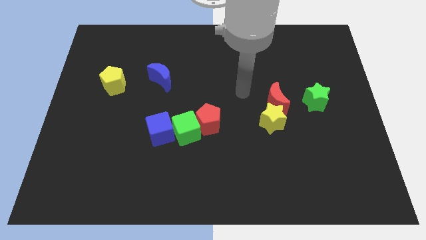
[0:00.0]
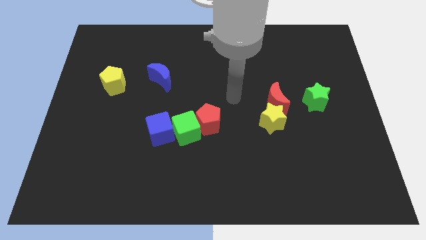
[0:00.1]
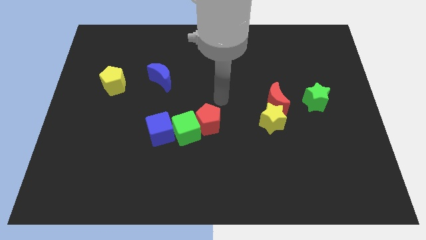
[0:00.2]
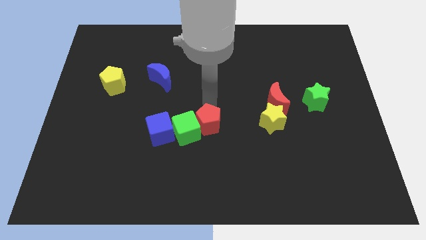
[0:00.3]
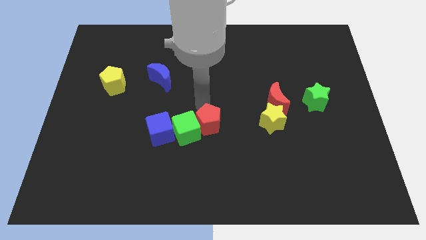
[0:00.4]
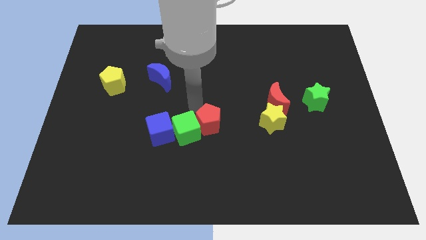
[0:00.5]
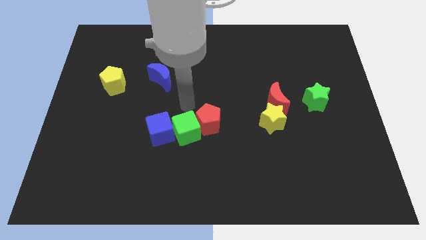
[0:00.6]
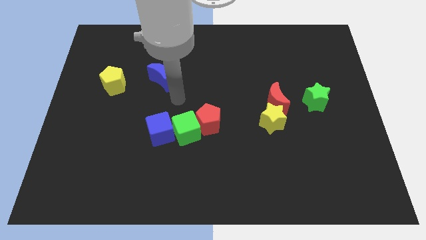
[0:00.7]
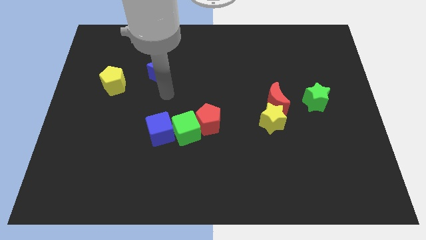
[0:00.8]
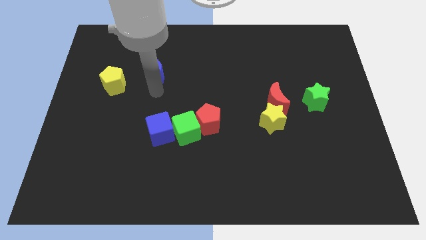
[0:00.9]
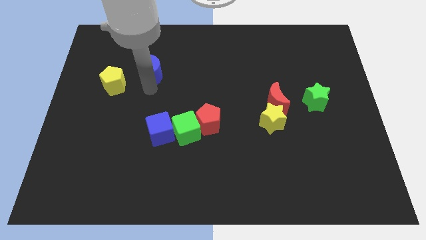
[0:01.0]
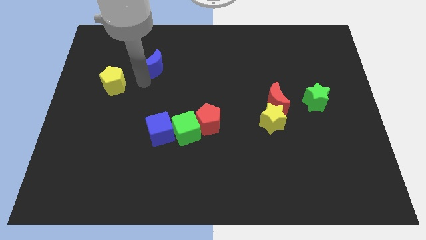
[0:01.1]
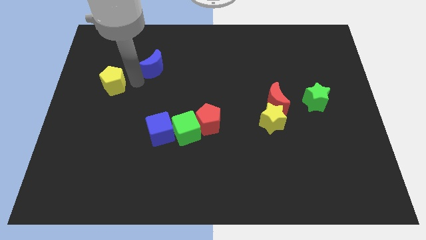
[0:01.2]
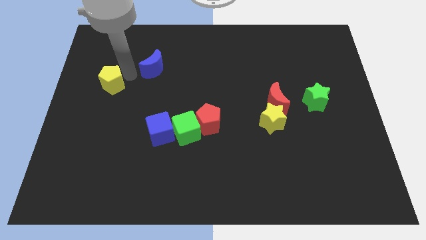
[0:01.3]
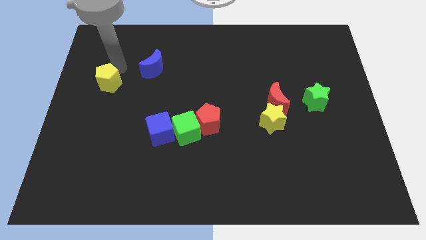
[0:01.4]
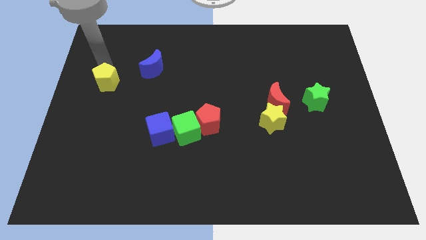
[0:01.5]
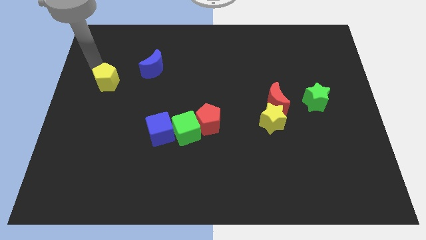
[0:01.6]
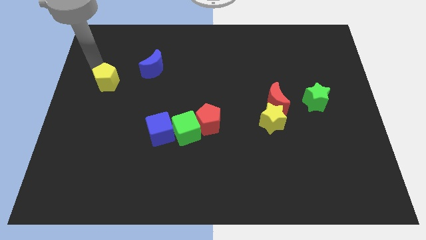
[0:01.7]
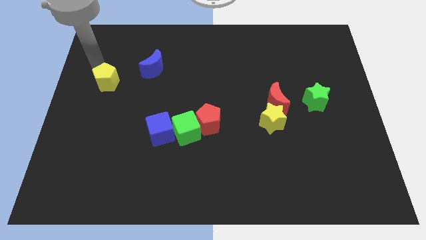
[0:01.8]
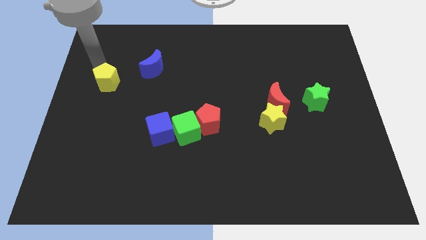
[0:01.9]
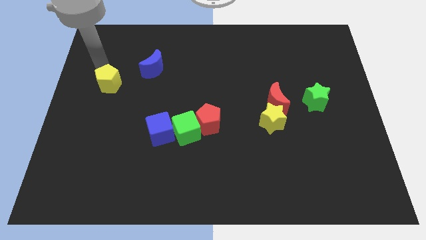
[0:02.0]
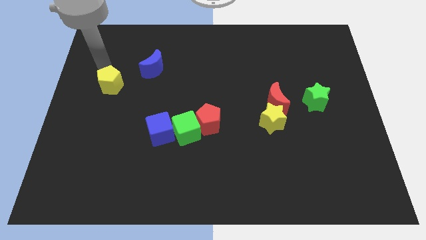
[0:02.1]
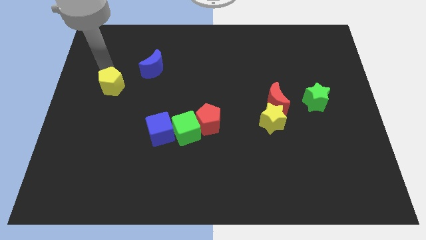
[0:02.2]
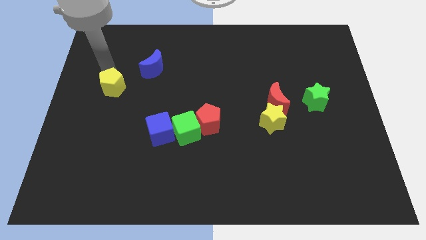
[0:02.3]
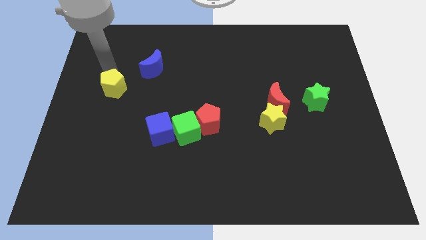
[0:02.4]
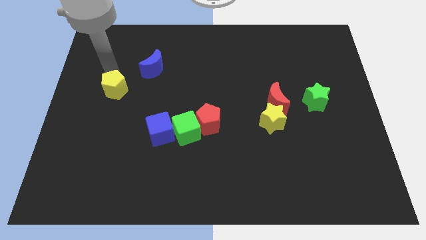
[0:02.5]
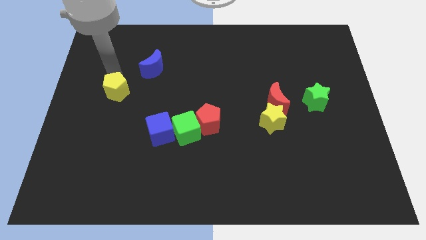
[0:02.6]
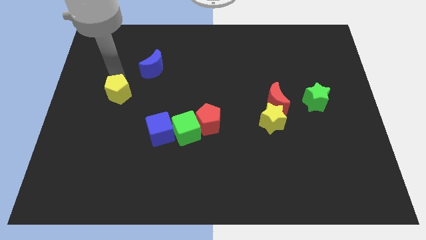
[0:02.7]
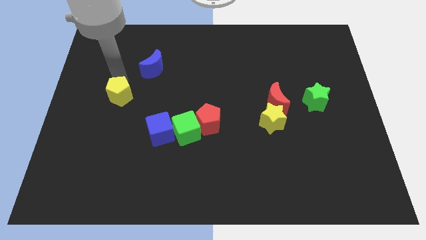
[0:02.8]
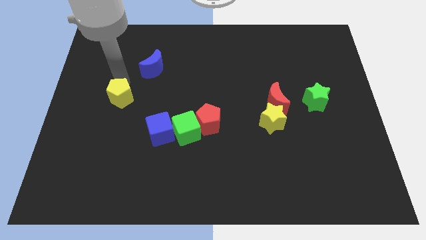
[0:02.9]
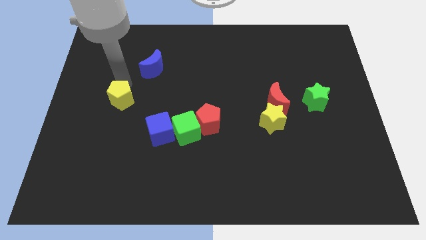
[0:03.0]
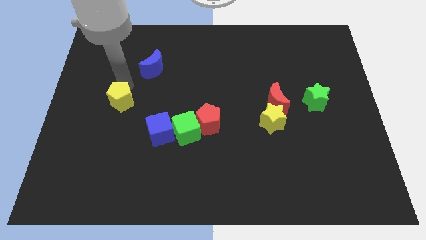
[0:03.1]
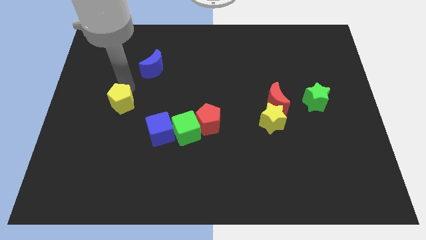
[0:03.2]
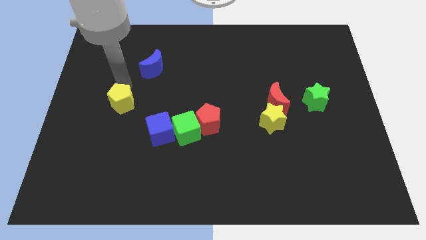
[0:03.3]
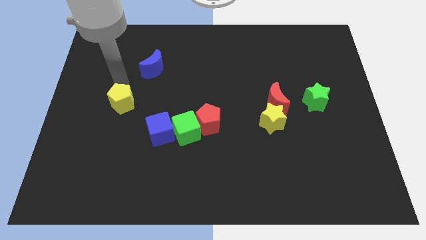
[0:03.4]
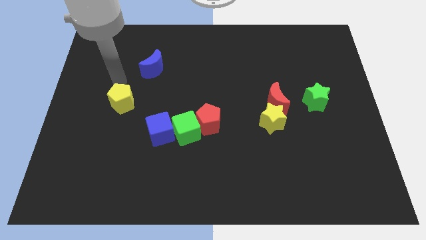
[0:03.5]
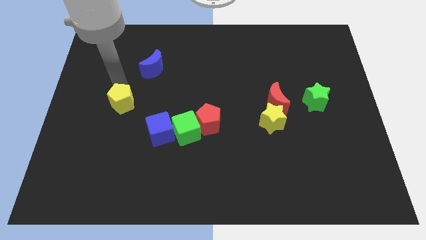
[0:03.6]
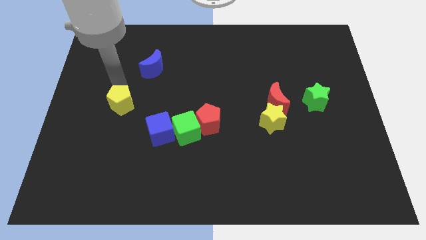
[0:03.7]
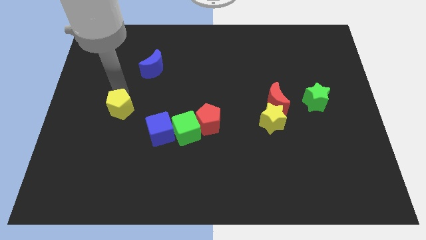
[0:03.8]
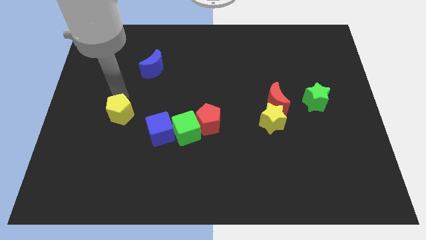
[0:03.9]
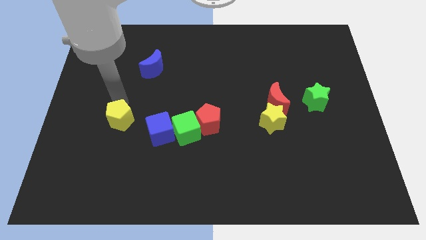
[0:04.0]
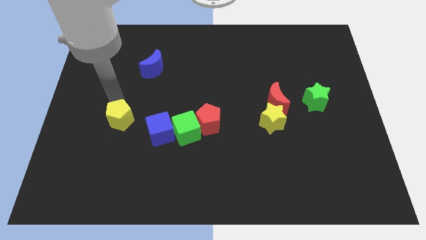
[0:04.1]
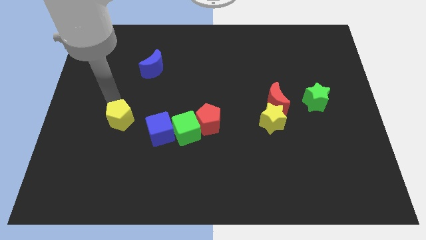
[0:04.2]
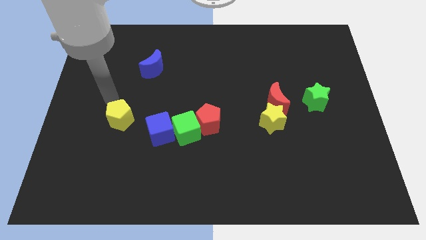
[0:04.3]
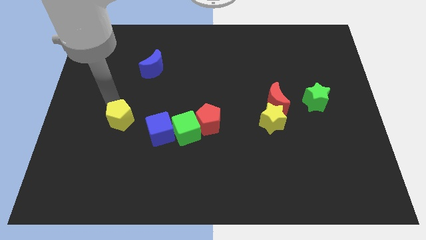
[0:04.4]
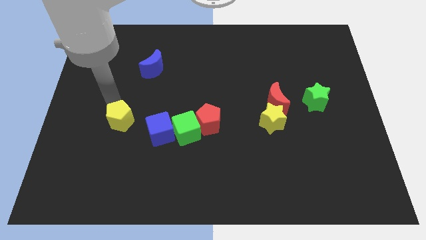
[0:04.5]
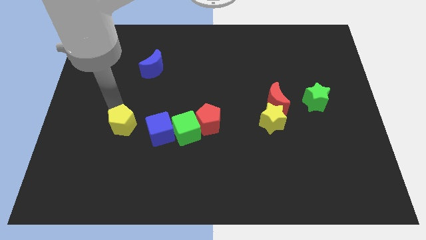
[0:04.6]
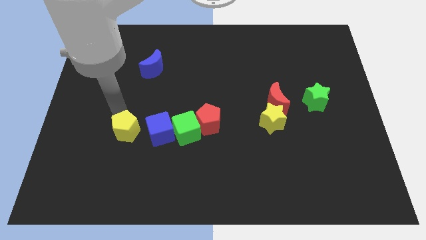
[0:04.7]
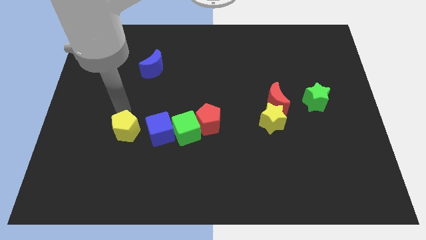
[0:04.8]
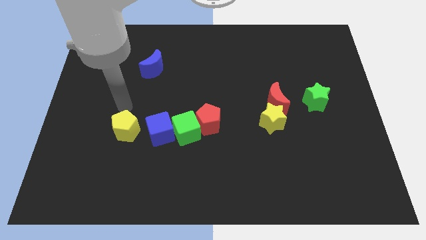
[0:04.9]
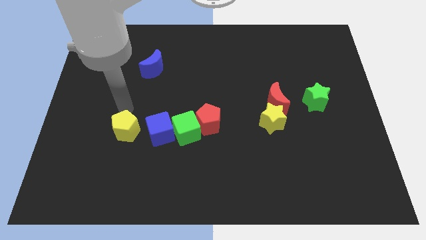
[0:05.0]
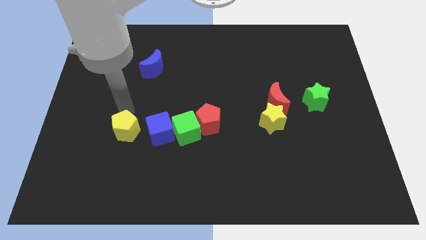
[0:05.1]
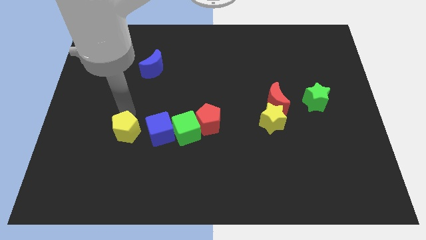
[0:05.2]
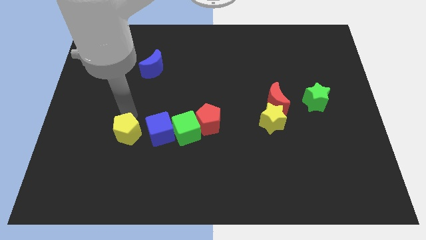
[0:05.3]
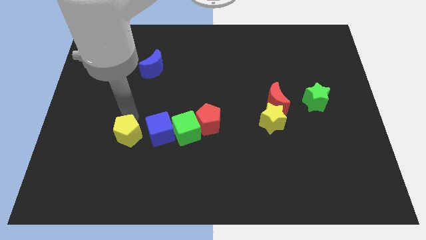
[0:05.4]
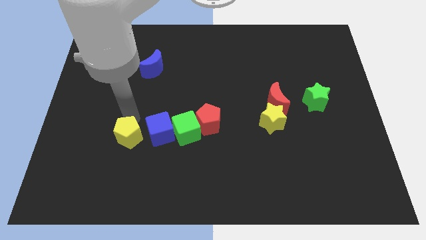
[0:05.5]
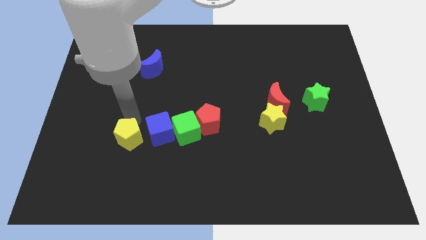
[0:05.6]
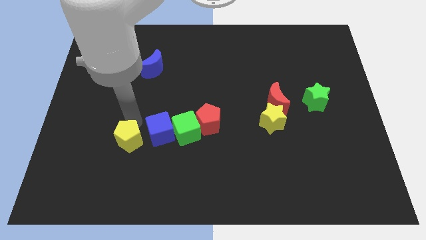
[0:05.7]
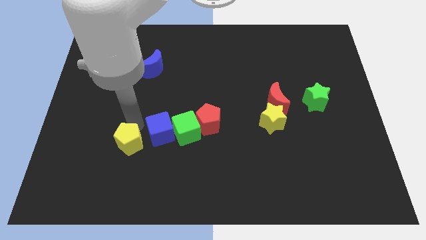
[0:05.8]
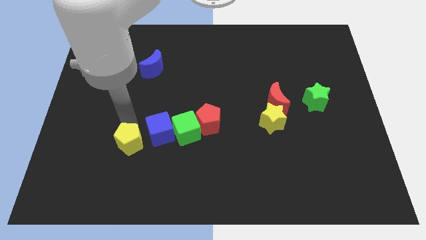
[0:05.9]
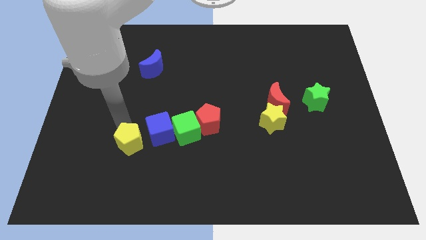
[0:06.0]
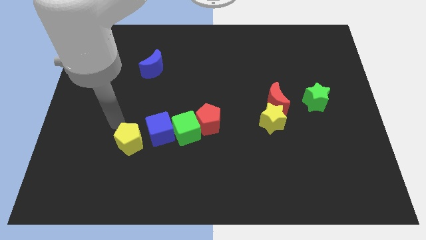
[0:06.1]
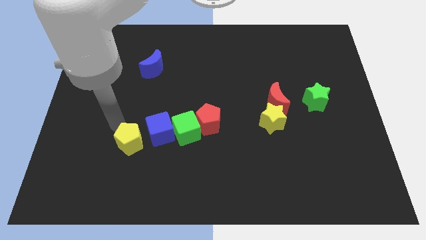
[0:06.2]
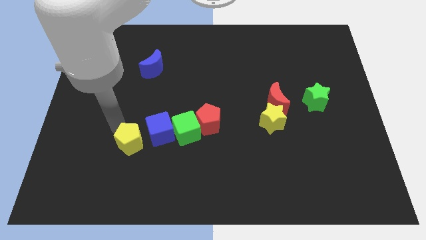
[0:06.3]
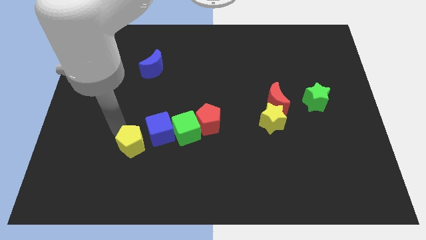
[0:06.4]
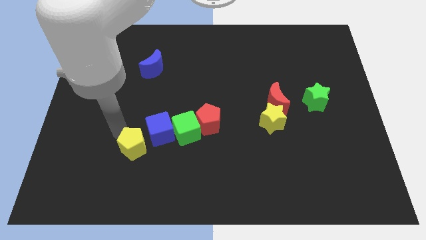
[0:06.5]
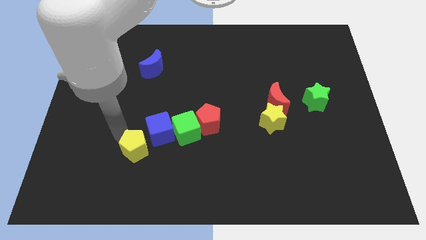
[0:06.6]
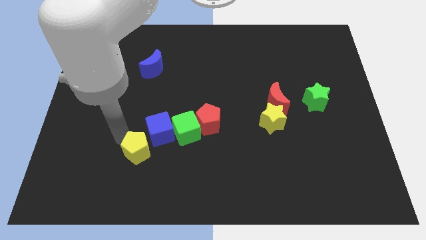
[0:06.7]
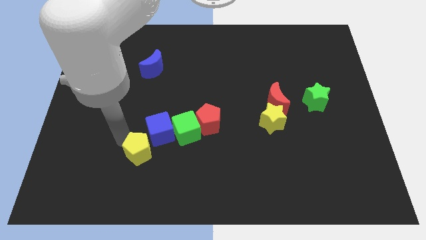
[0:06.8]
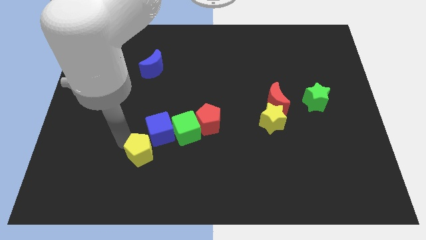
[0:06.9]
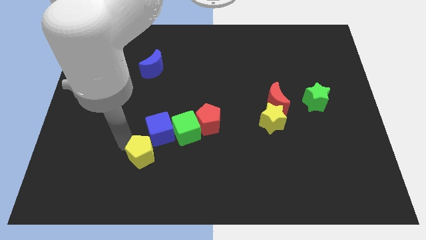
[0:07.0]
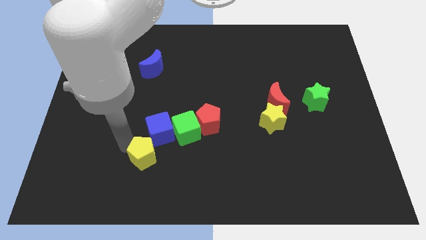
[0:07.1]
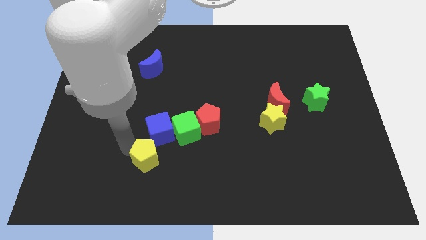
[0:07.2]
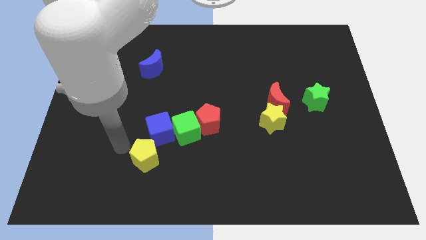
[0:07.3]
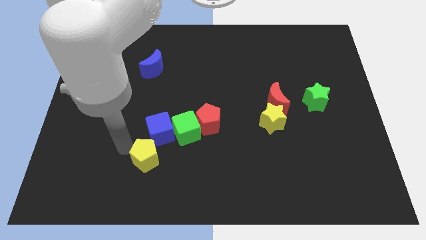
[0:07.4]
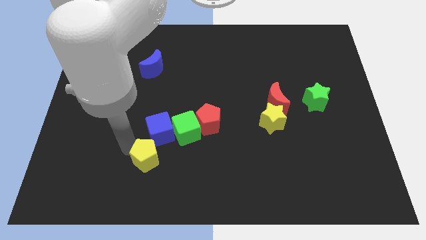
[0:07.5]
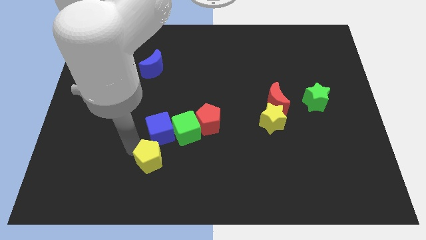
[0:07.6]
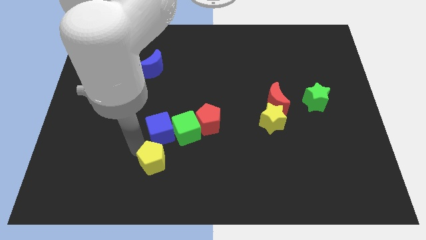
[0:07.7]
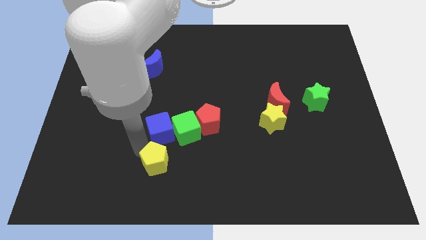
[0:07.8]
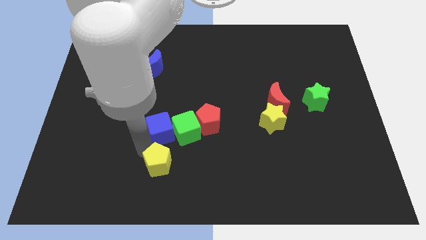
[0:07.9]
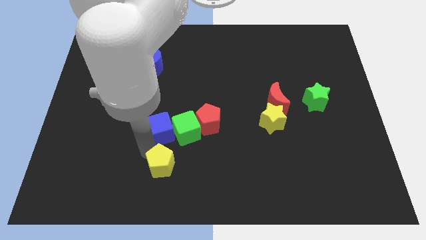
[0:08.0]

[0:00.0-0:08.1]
move the yellow pentagon below the green cube
